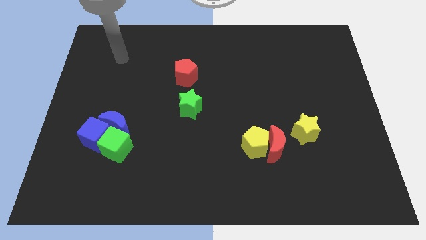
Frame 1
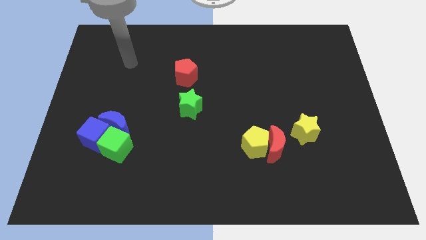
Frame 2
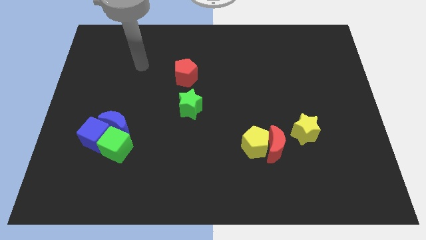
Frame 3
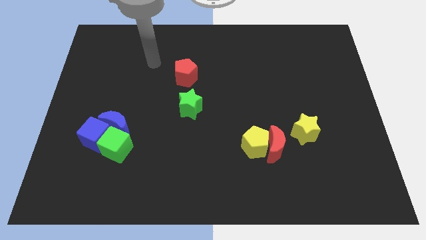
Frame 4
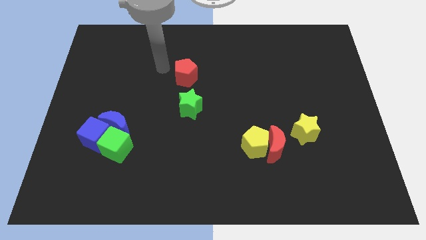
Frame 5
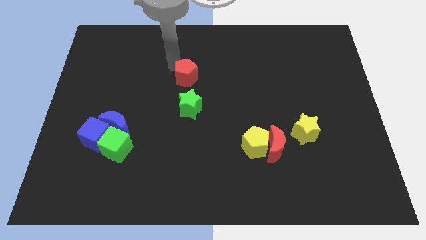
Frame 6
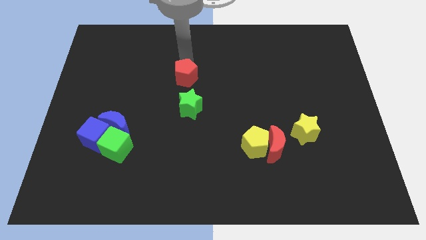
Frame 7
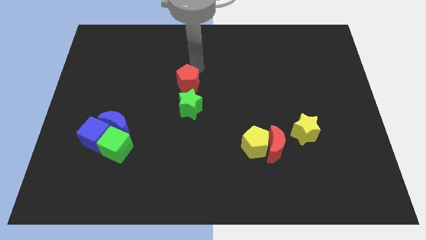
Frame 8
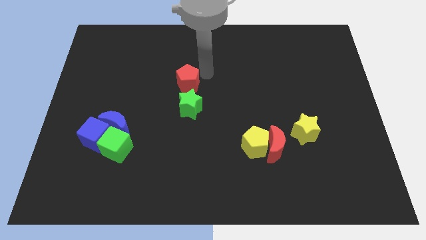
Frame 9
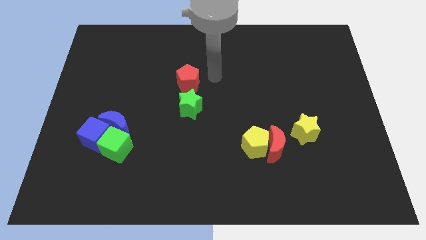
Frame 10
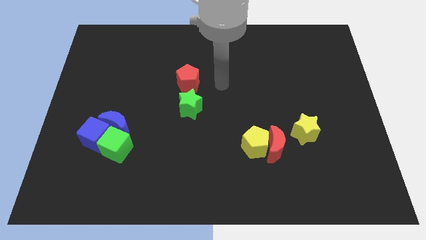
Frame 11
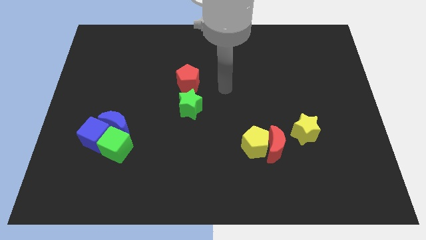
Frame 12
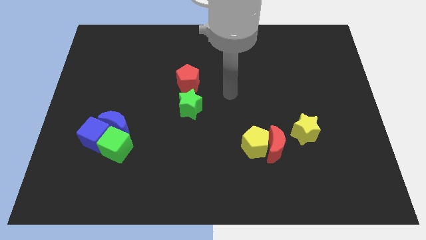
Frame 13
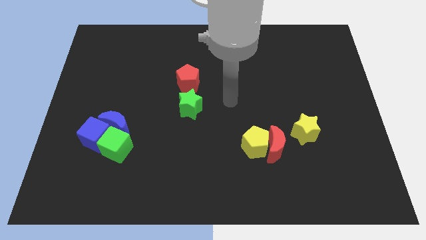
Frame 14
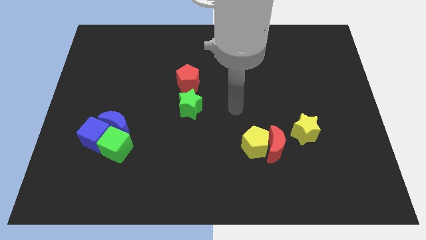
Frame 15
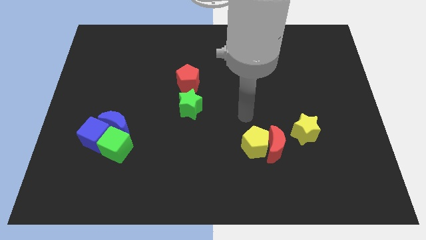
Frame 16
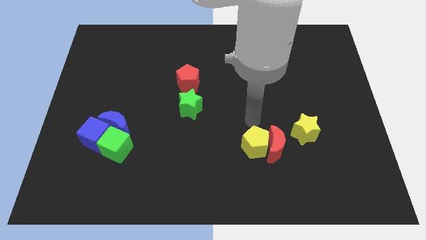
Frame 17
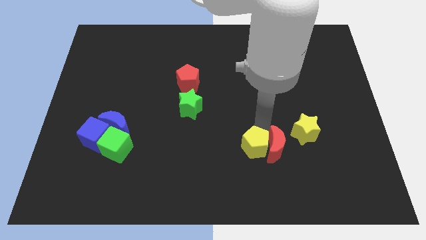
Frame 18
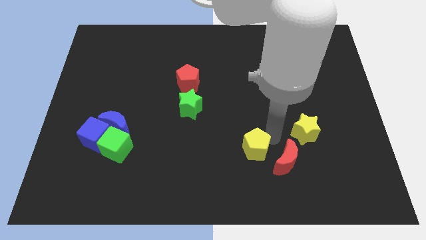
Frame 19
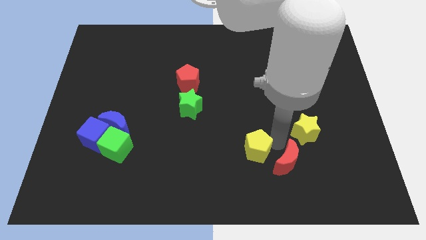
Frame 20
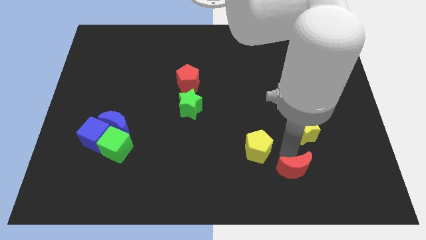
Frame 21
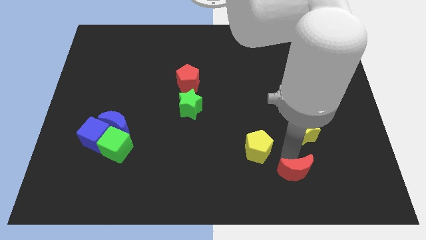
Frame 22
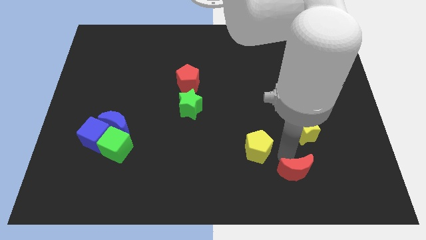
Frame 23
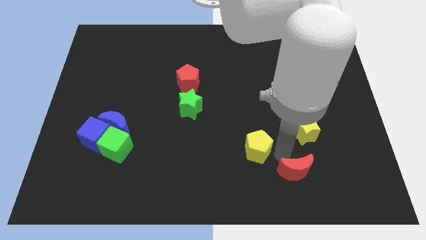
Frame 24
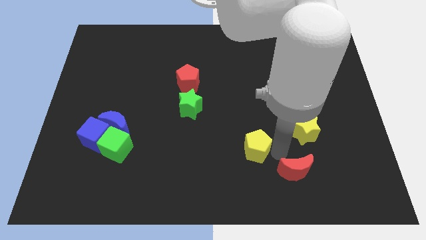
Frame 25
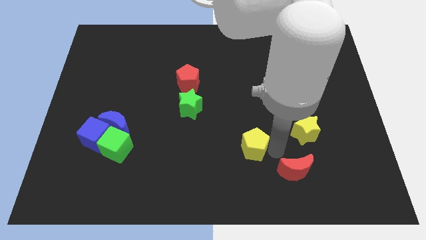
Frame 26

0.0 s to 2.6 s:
separate the yellow pentagon from the red moon

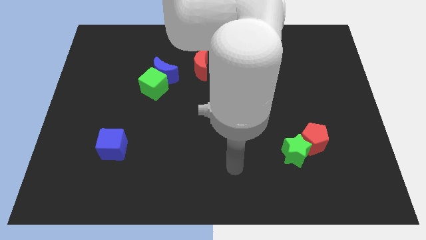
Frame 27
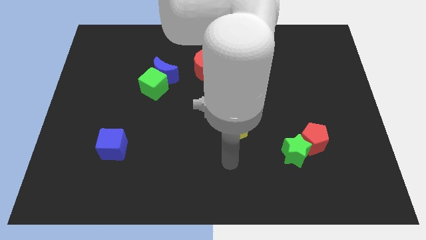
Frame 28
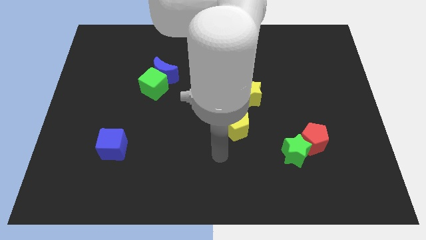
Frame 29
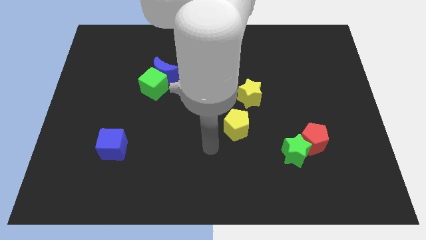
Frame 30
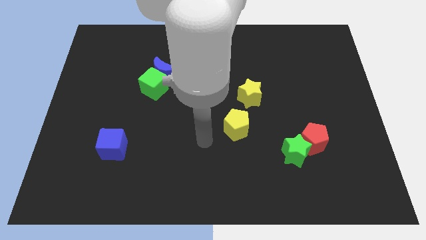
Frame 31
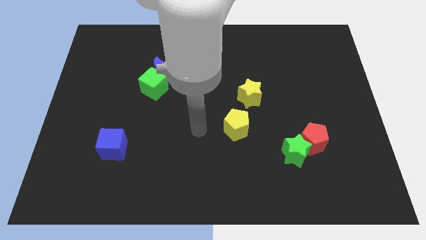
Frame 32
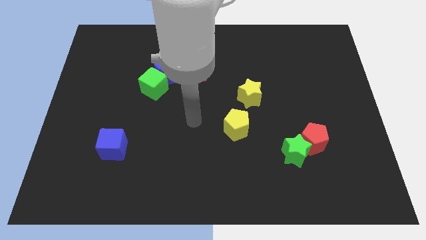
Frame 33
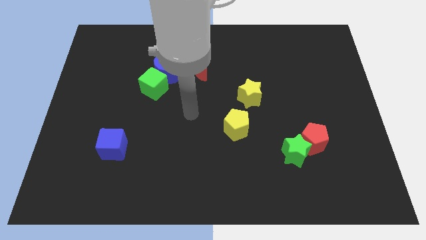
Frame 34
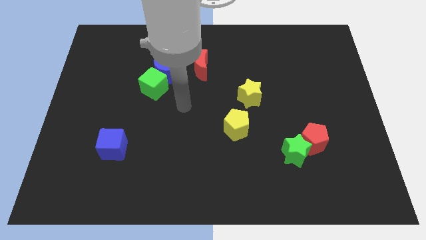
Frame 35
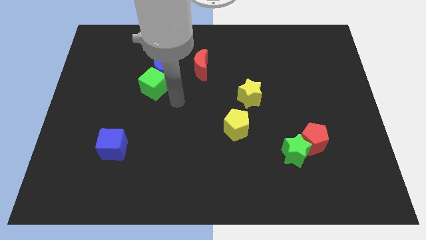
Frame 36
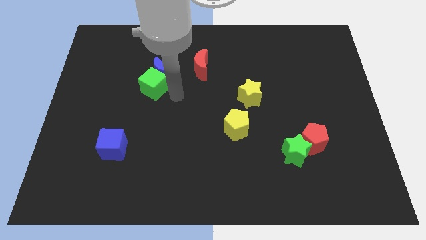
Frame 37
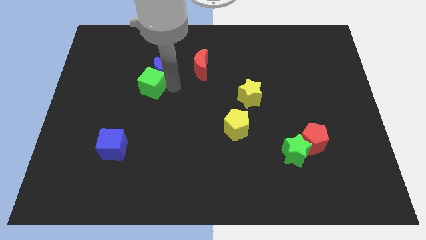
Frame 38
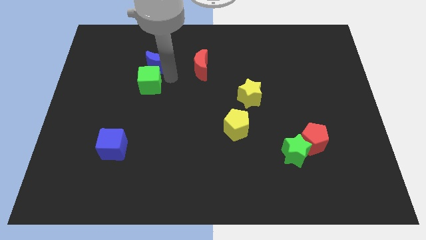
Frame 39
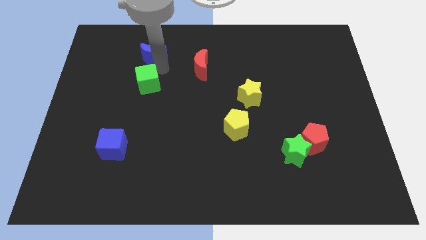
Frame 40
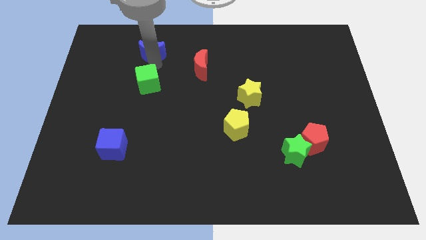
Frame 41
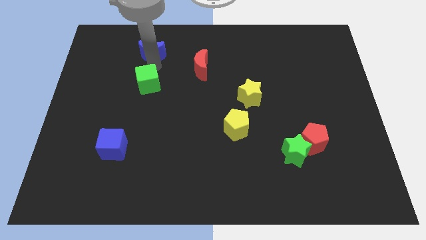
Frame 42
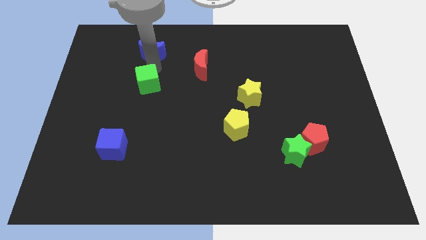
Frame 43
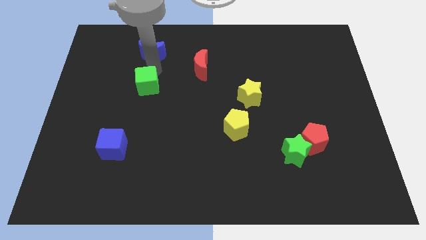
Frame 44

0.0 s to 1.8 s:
move the green cube away from the blue moon

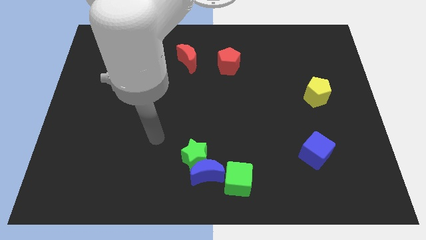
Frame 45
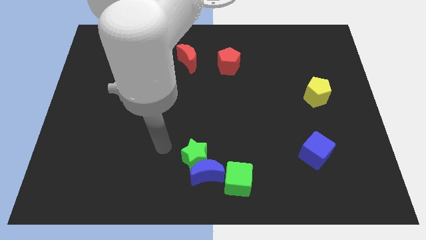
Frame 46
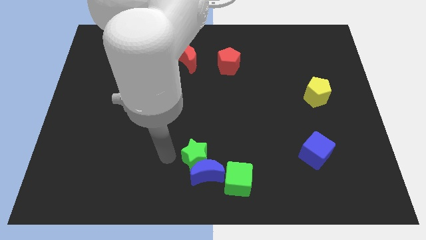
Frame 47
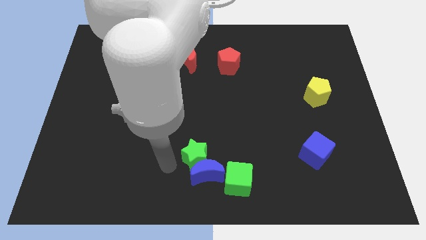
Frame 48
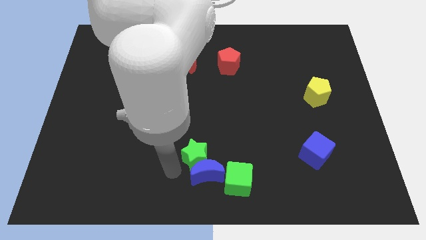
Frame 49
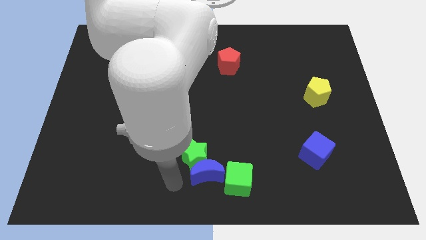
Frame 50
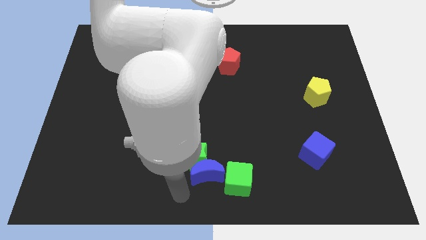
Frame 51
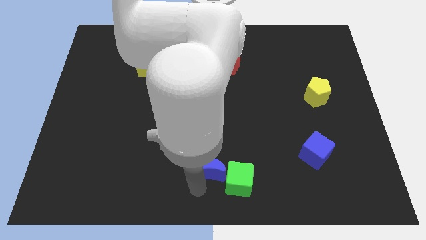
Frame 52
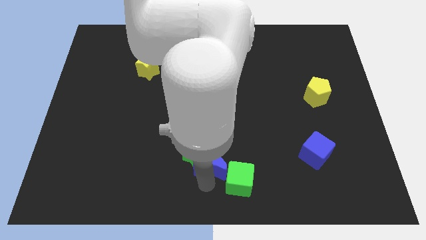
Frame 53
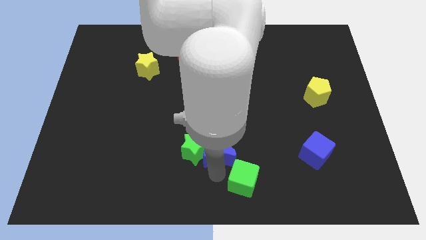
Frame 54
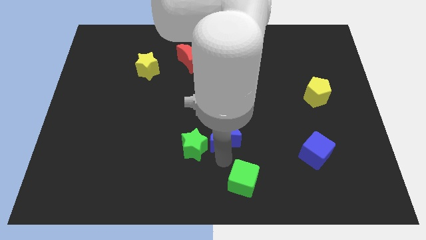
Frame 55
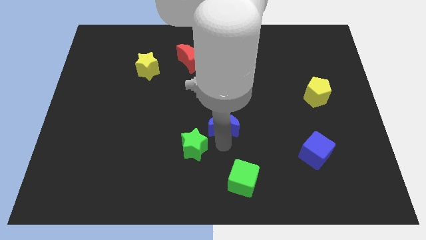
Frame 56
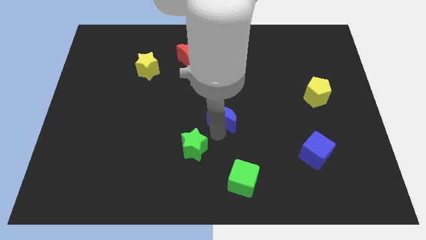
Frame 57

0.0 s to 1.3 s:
move the green star away from the blue moon

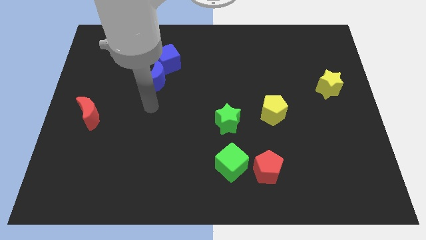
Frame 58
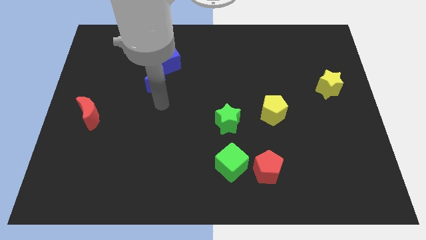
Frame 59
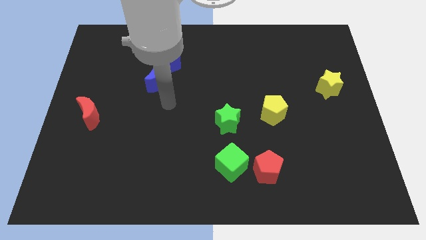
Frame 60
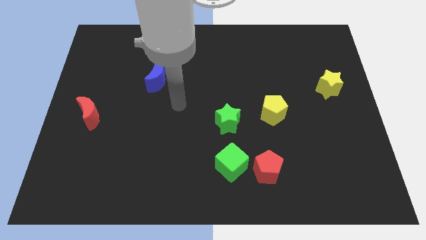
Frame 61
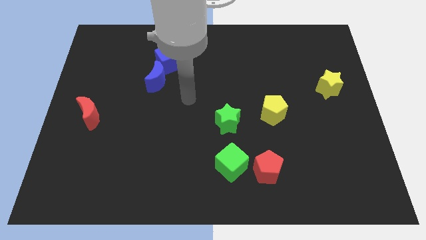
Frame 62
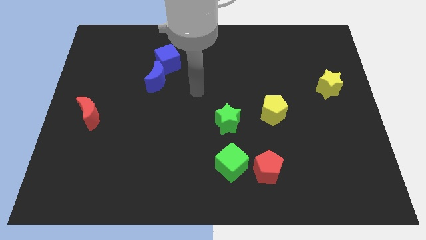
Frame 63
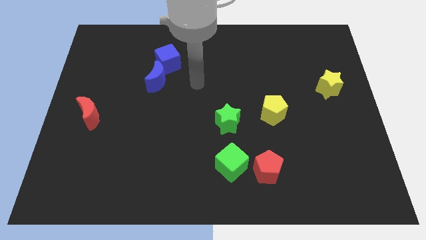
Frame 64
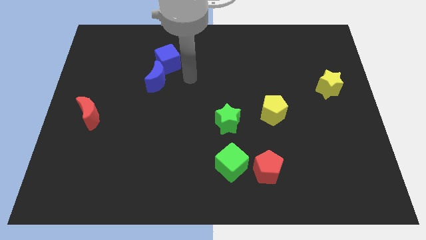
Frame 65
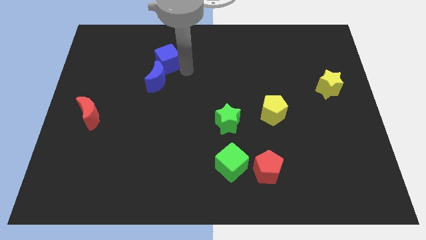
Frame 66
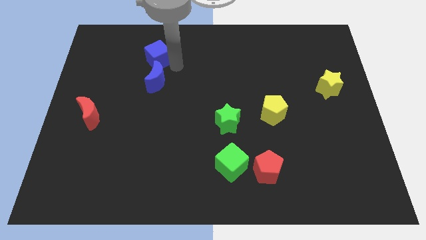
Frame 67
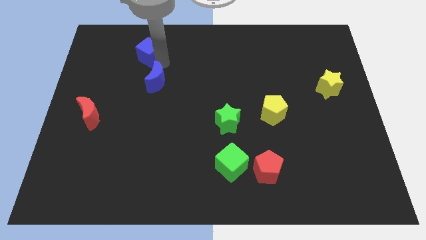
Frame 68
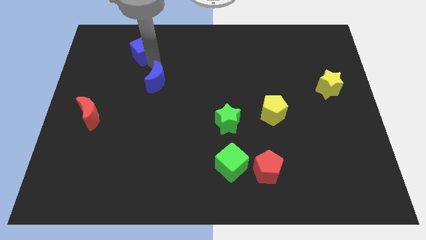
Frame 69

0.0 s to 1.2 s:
separate the blue moon from the blue cube

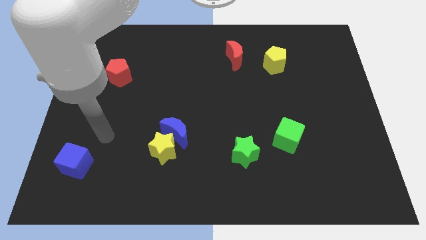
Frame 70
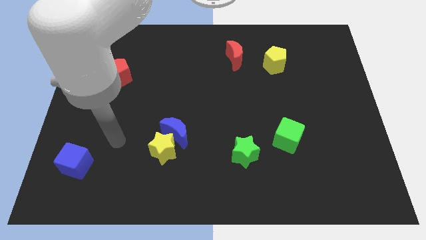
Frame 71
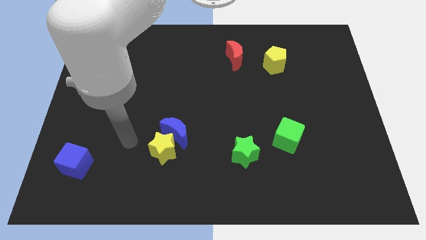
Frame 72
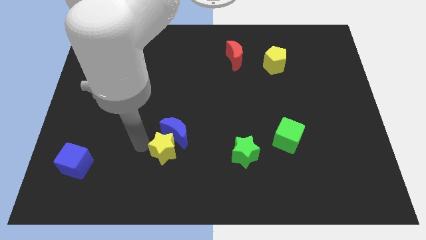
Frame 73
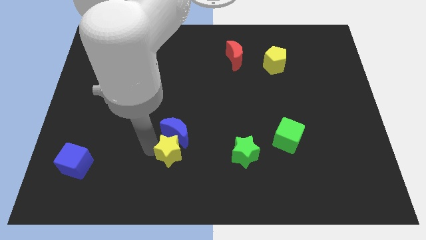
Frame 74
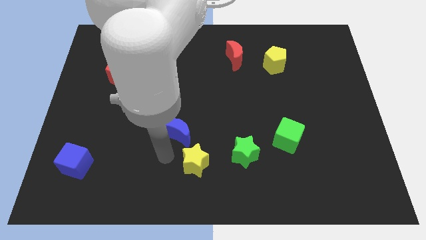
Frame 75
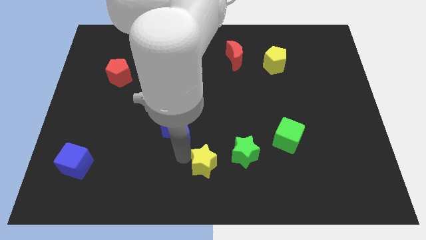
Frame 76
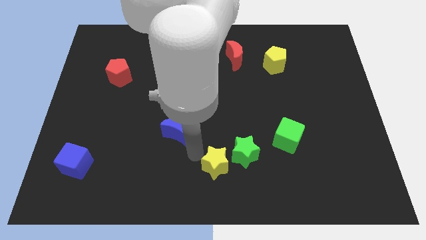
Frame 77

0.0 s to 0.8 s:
separate the blue moon from the yellow star

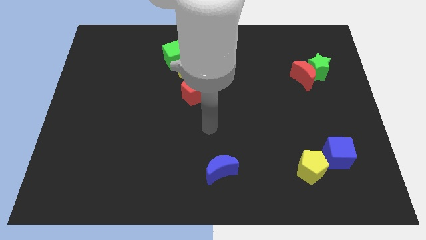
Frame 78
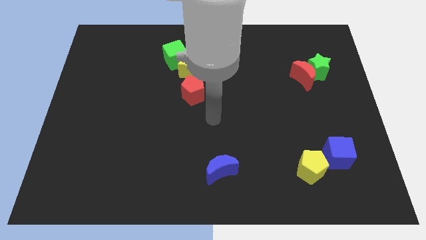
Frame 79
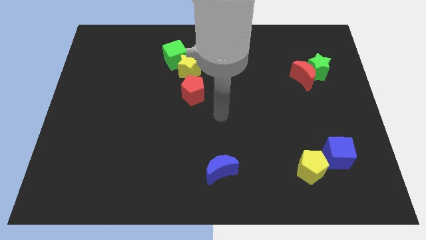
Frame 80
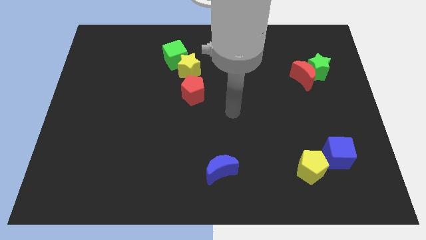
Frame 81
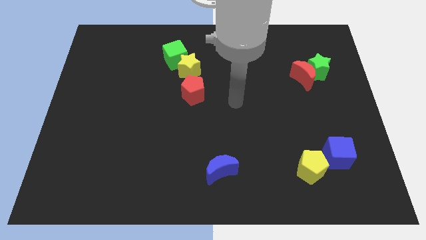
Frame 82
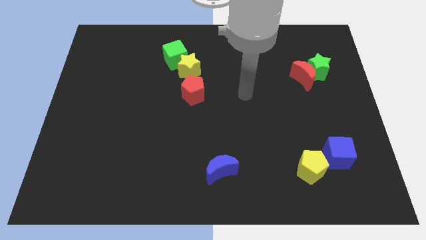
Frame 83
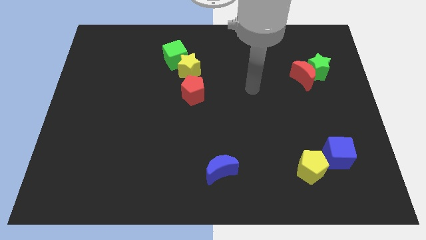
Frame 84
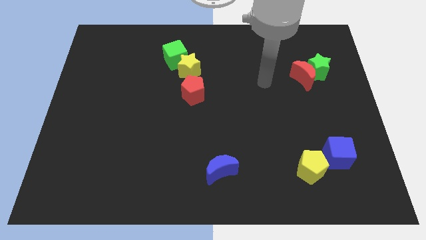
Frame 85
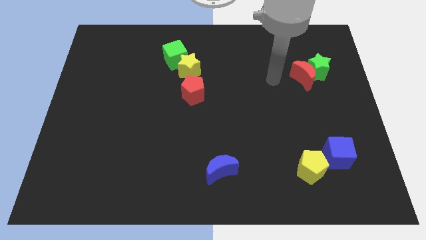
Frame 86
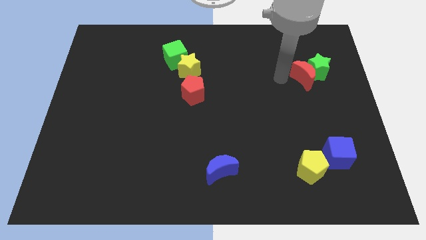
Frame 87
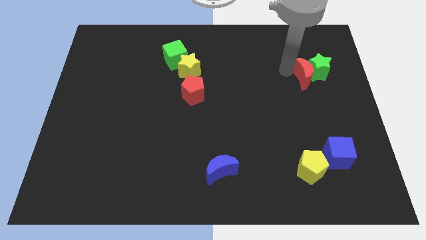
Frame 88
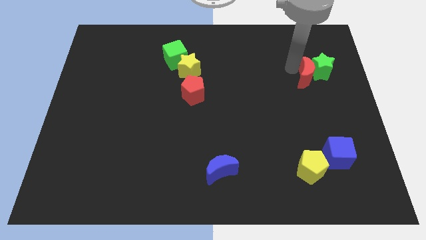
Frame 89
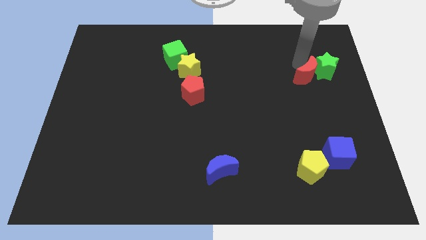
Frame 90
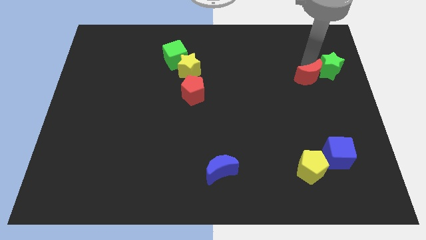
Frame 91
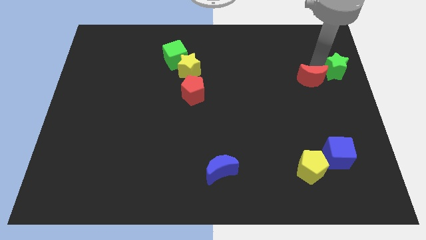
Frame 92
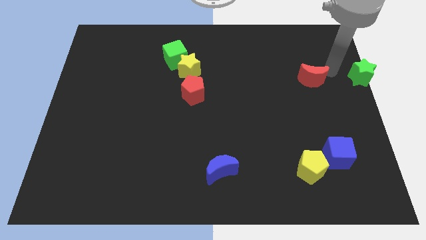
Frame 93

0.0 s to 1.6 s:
separate the red moon from the green star
